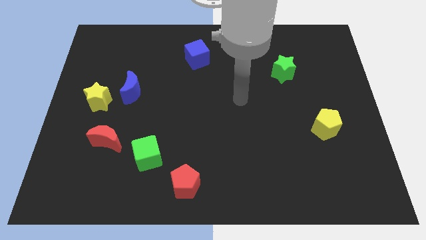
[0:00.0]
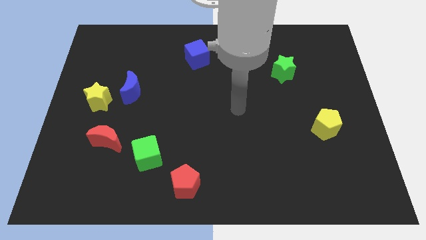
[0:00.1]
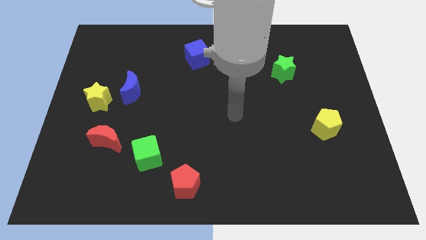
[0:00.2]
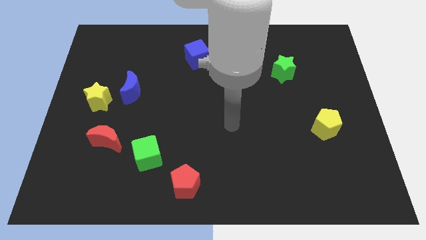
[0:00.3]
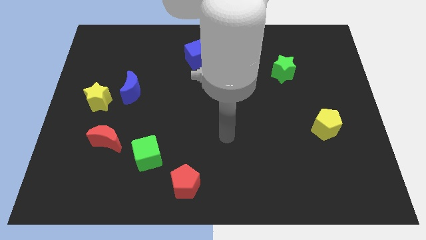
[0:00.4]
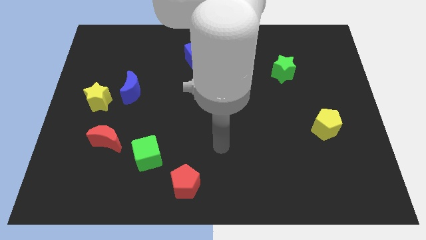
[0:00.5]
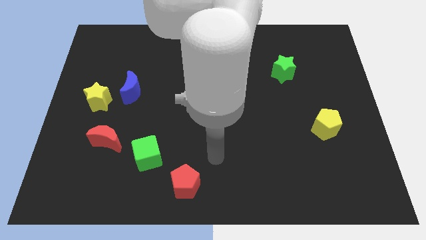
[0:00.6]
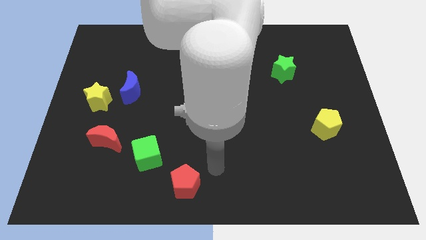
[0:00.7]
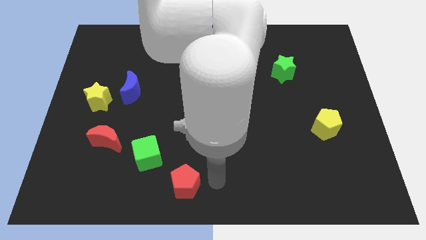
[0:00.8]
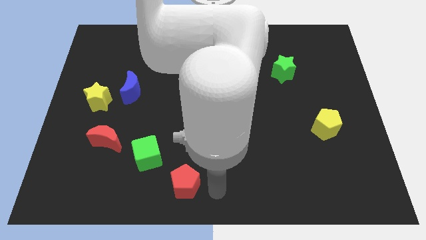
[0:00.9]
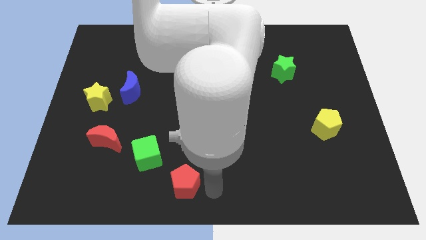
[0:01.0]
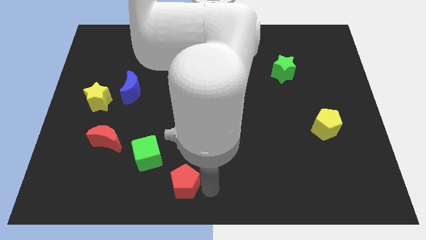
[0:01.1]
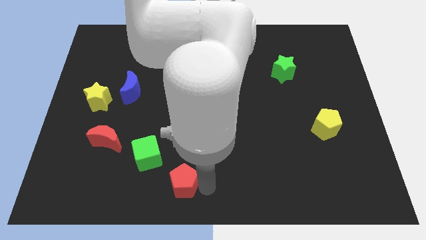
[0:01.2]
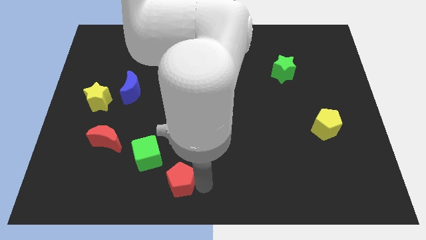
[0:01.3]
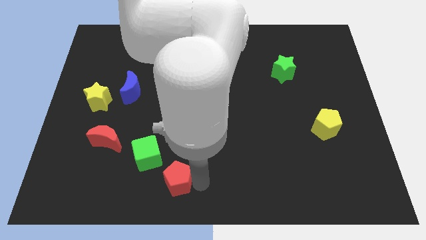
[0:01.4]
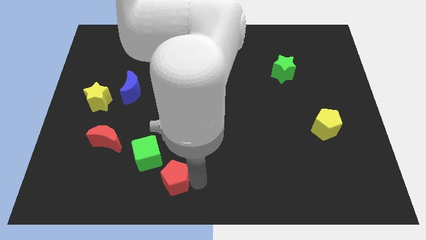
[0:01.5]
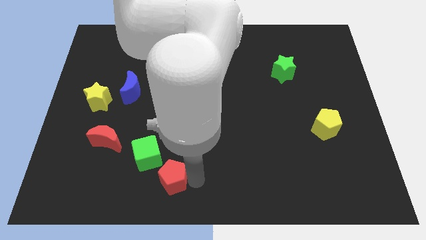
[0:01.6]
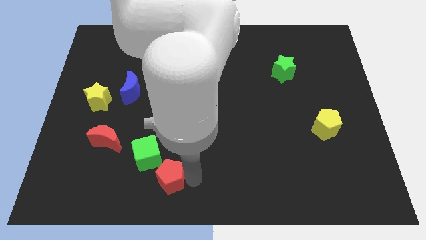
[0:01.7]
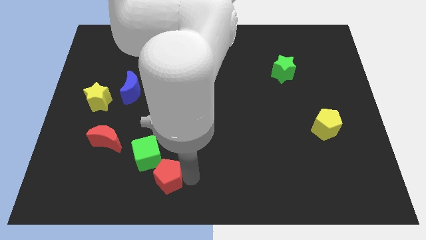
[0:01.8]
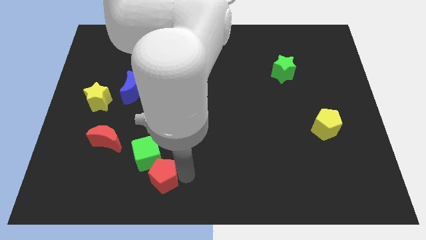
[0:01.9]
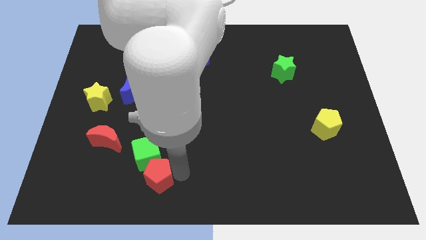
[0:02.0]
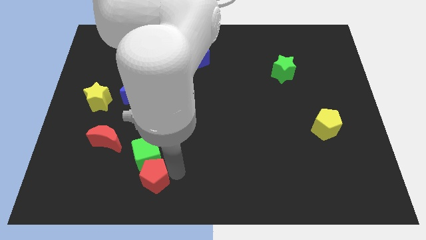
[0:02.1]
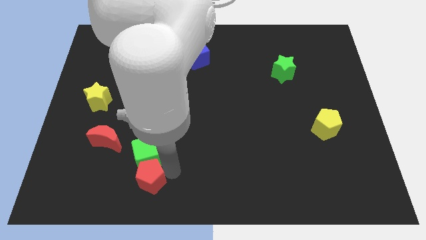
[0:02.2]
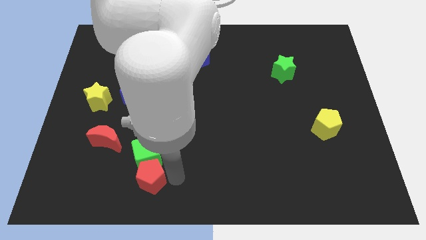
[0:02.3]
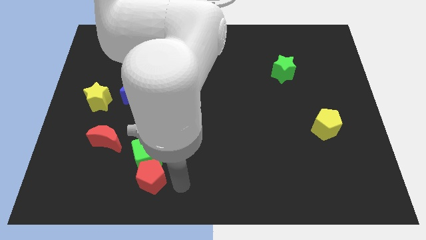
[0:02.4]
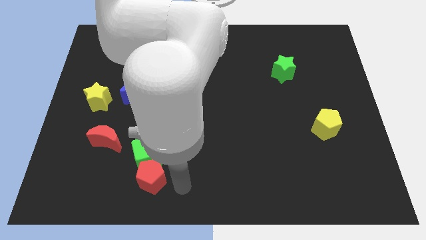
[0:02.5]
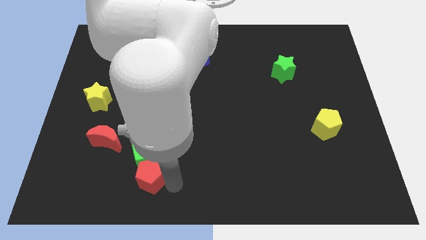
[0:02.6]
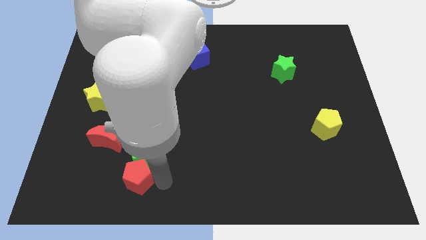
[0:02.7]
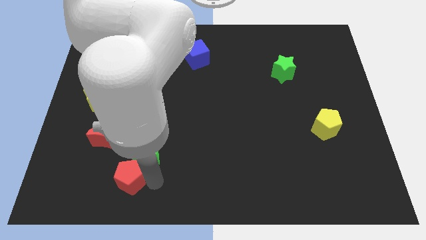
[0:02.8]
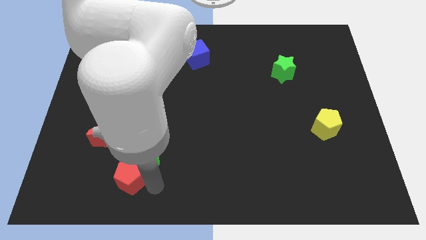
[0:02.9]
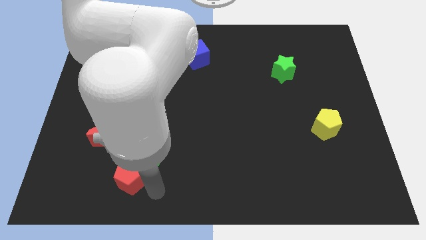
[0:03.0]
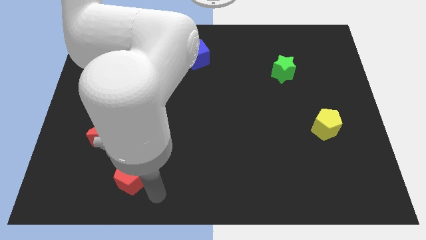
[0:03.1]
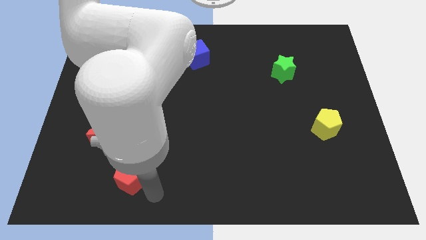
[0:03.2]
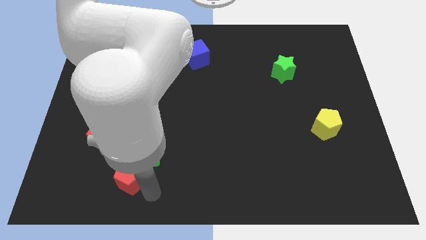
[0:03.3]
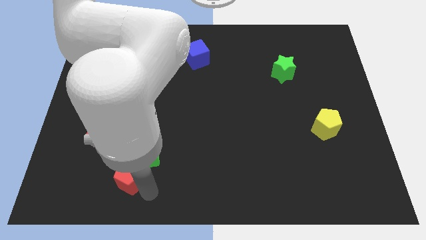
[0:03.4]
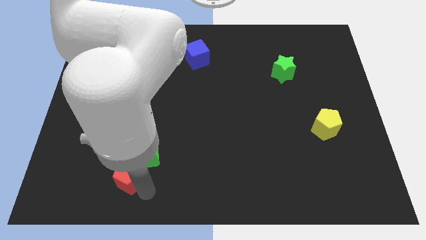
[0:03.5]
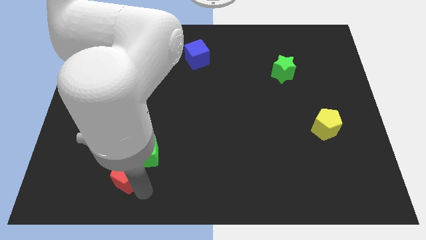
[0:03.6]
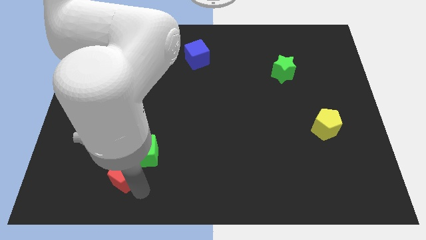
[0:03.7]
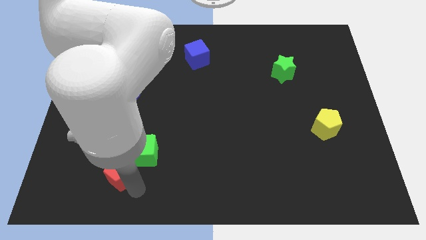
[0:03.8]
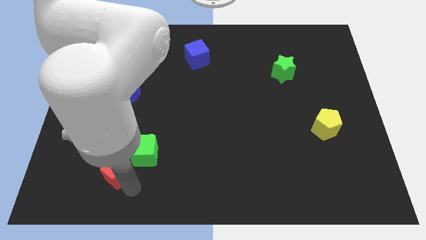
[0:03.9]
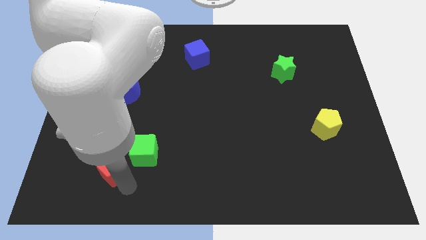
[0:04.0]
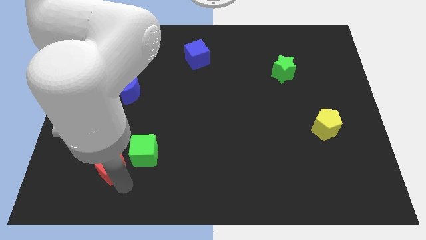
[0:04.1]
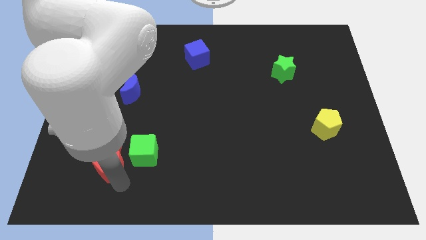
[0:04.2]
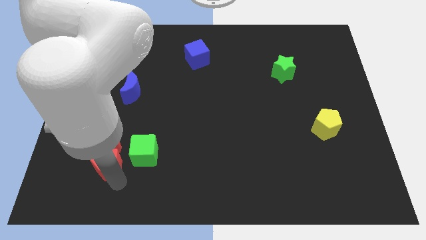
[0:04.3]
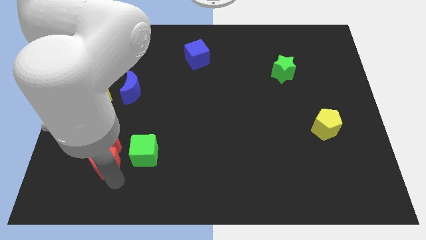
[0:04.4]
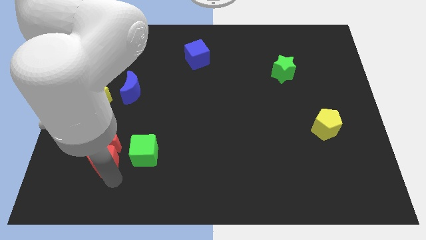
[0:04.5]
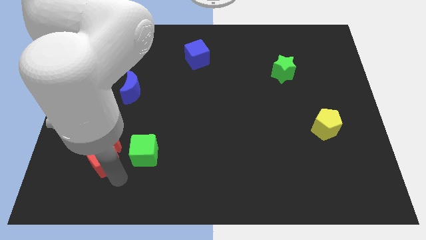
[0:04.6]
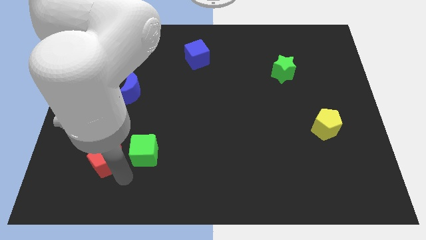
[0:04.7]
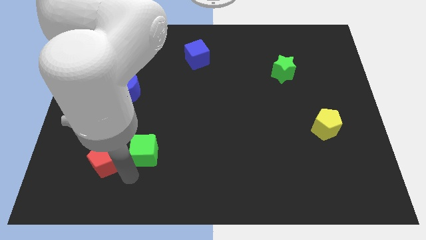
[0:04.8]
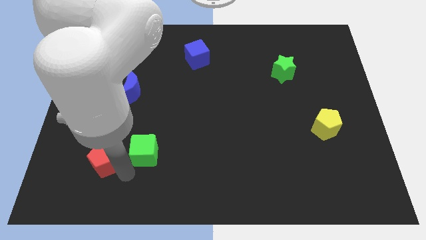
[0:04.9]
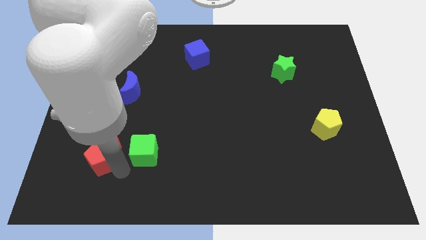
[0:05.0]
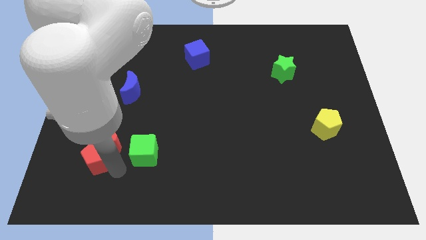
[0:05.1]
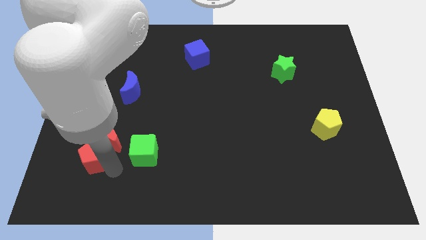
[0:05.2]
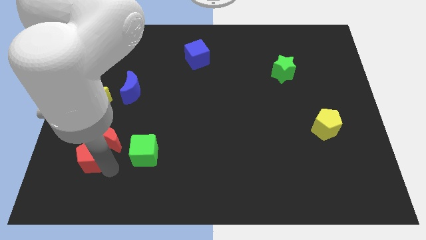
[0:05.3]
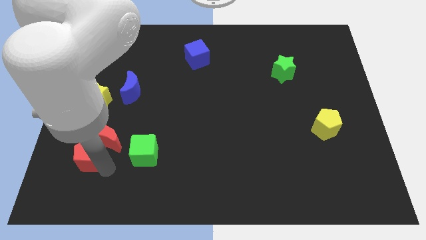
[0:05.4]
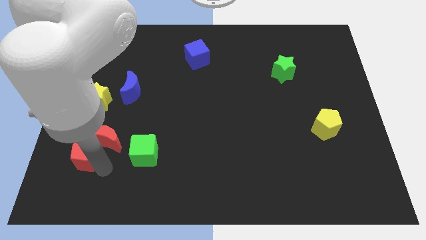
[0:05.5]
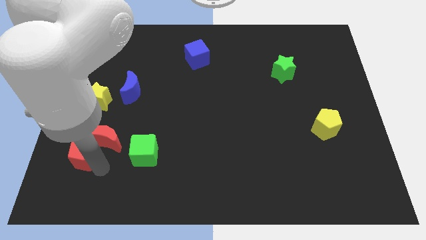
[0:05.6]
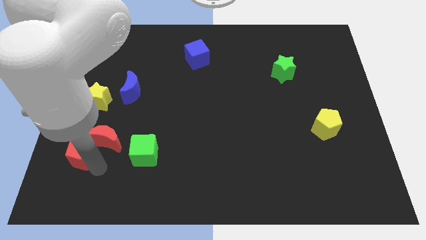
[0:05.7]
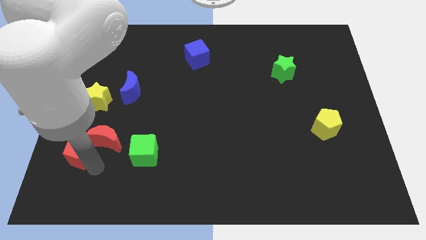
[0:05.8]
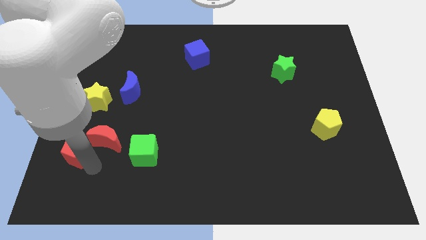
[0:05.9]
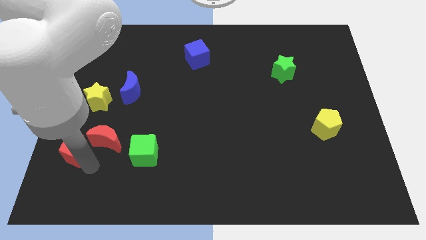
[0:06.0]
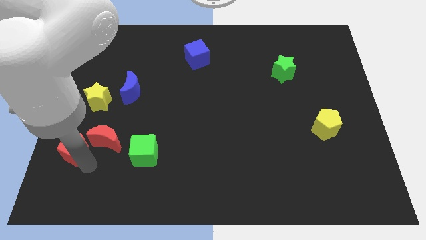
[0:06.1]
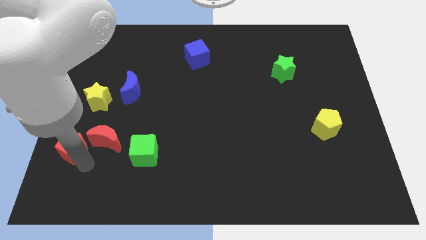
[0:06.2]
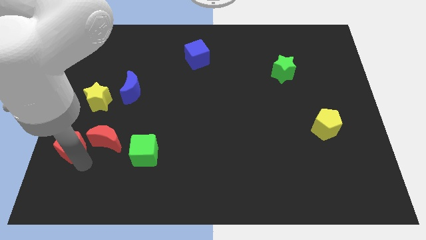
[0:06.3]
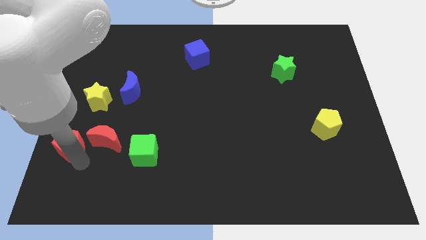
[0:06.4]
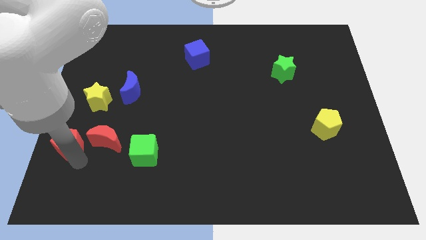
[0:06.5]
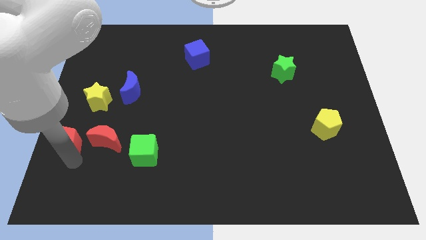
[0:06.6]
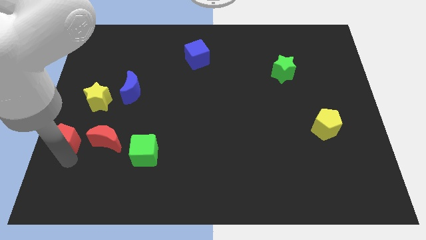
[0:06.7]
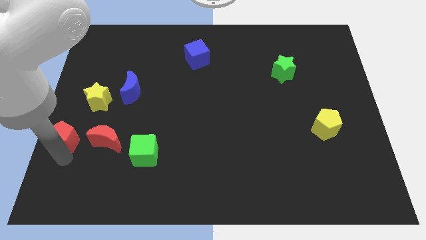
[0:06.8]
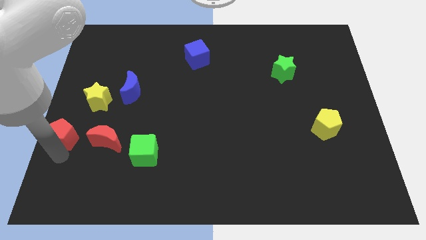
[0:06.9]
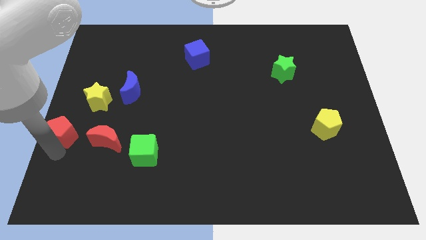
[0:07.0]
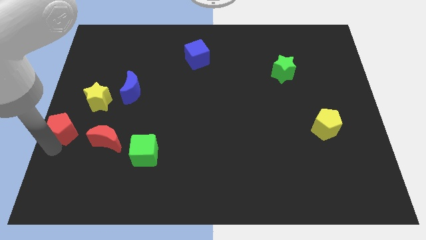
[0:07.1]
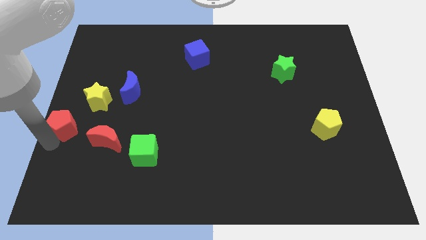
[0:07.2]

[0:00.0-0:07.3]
slide the red pentagon to the top left side of the red moon
